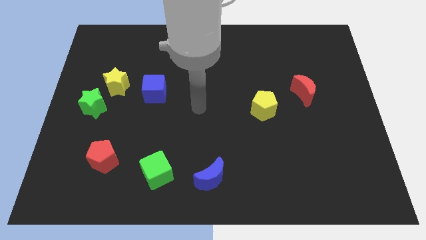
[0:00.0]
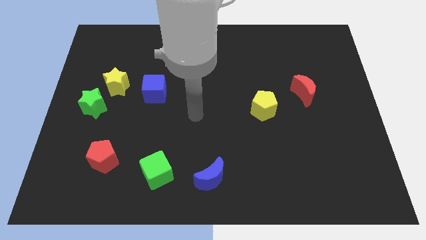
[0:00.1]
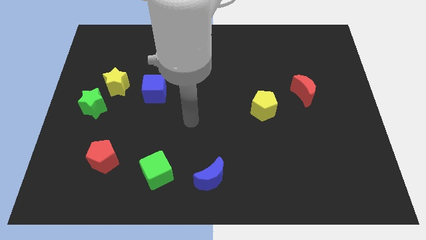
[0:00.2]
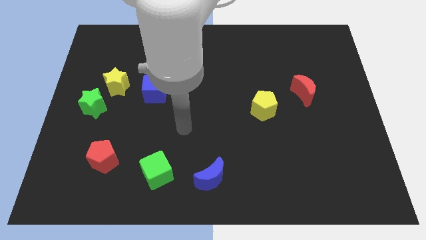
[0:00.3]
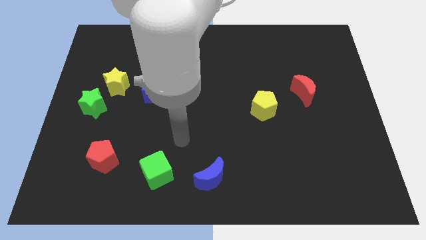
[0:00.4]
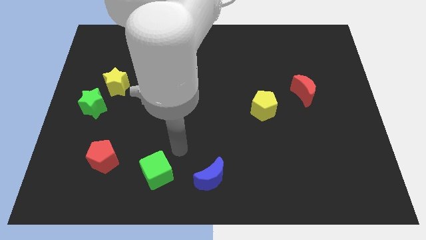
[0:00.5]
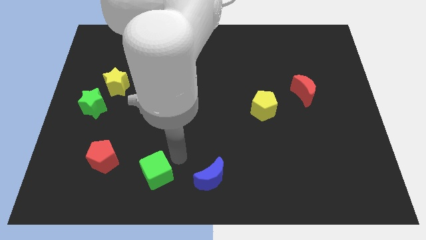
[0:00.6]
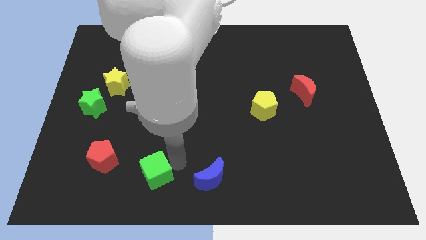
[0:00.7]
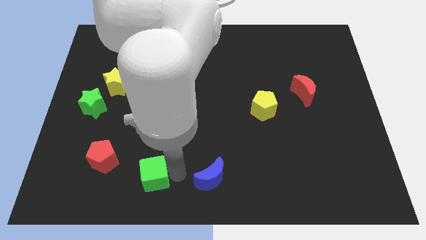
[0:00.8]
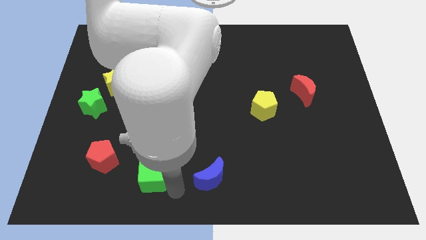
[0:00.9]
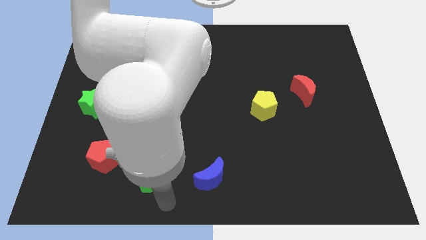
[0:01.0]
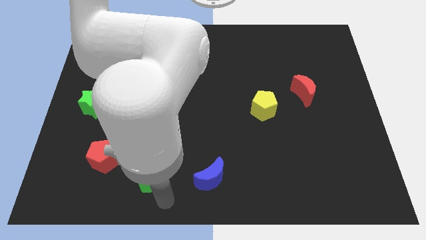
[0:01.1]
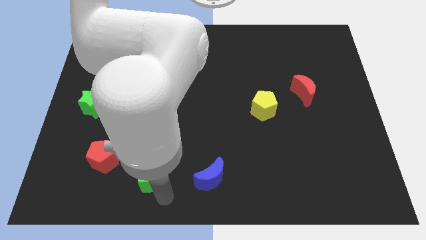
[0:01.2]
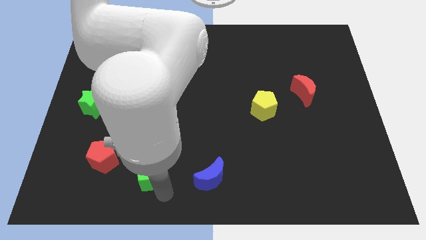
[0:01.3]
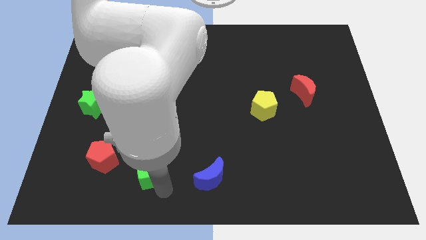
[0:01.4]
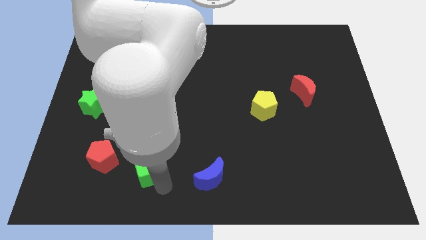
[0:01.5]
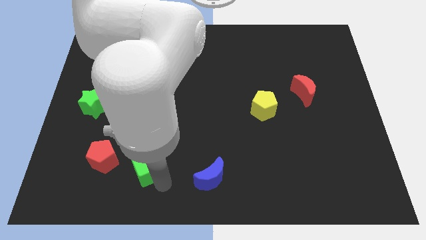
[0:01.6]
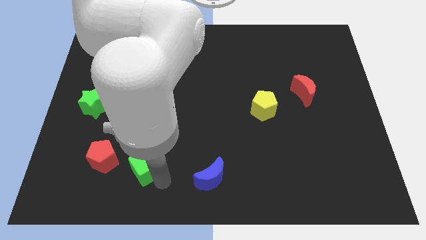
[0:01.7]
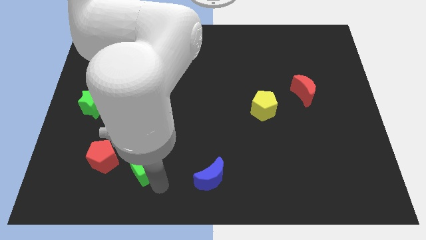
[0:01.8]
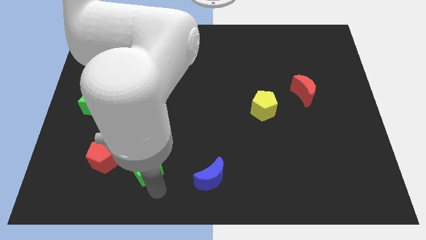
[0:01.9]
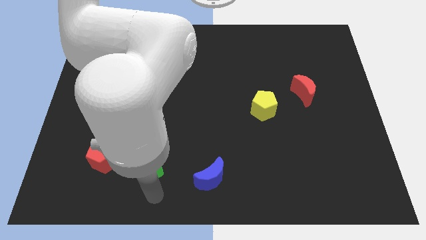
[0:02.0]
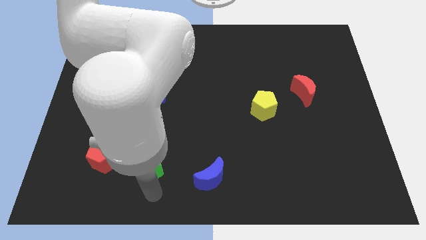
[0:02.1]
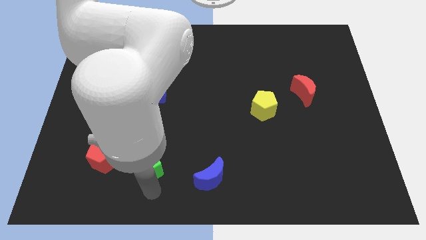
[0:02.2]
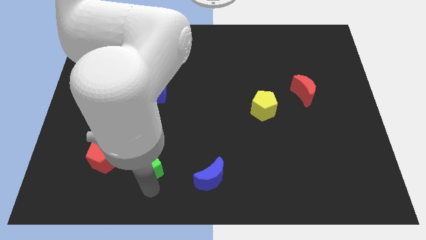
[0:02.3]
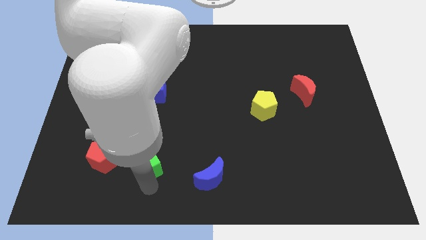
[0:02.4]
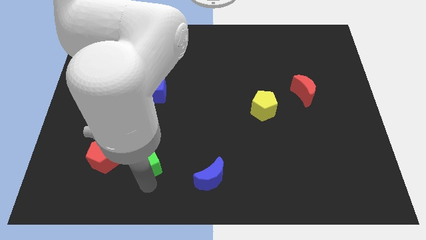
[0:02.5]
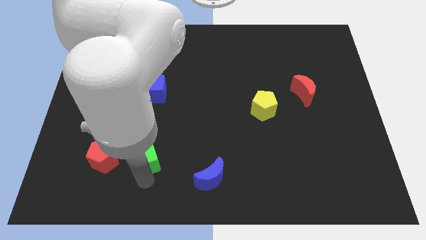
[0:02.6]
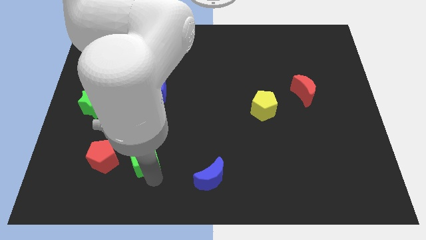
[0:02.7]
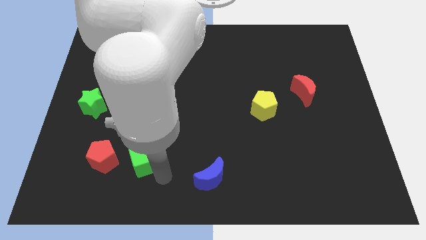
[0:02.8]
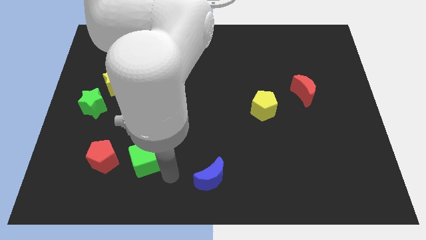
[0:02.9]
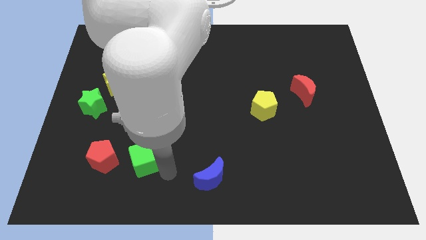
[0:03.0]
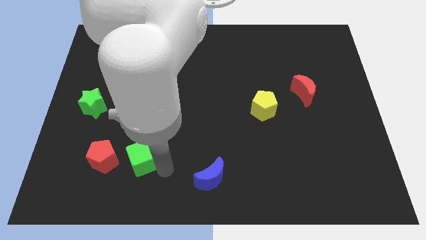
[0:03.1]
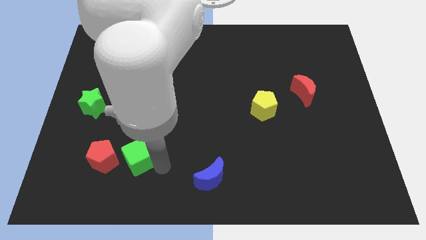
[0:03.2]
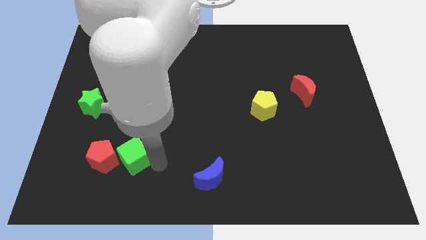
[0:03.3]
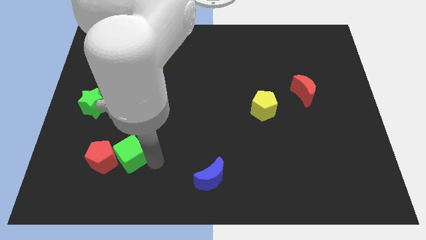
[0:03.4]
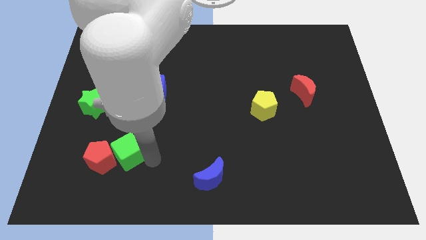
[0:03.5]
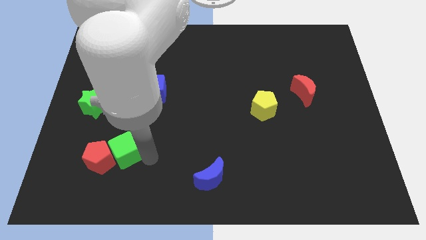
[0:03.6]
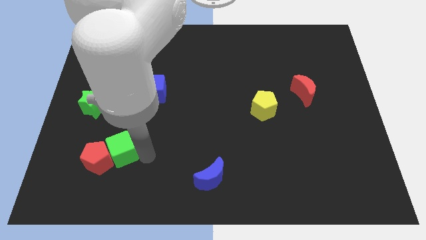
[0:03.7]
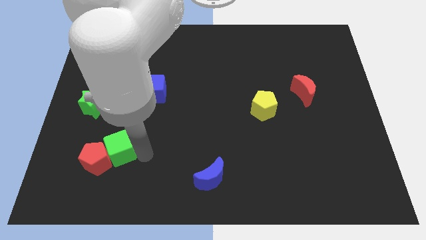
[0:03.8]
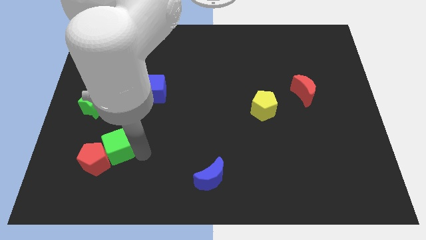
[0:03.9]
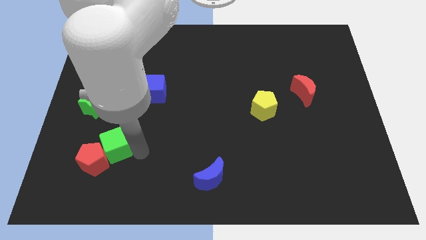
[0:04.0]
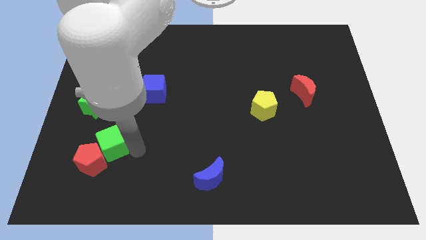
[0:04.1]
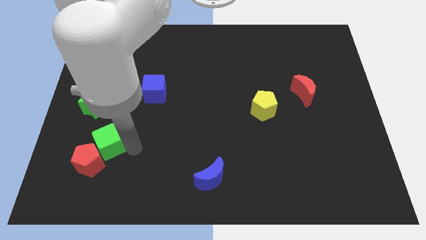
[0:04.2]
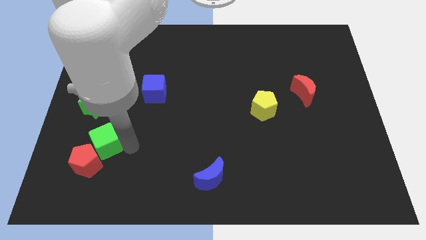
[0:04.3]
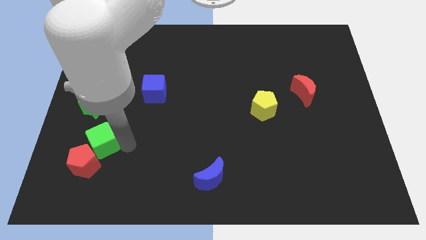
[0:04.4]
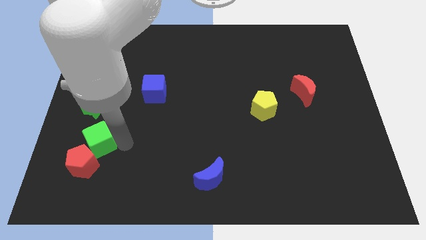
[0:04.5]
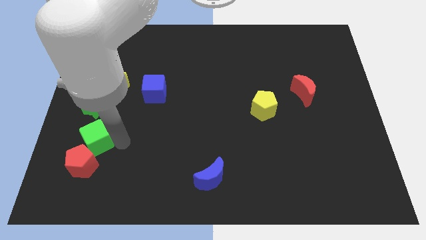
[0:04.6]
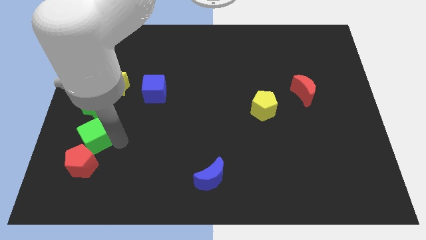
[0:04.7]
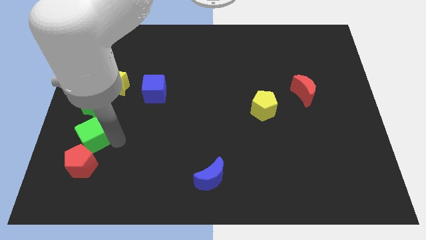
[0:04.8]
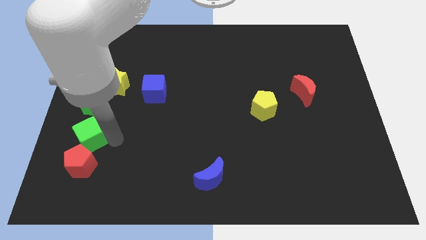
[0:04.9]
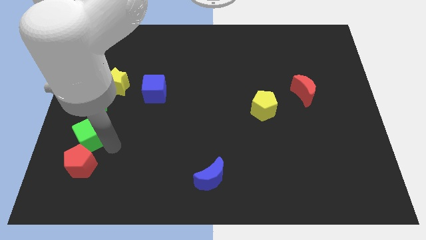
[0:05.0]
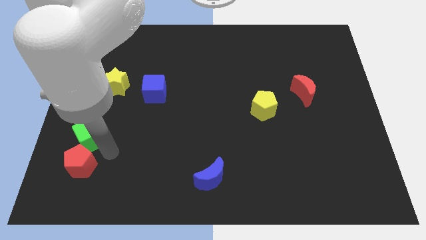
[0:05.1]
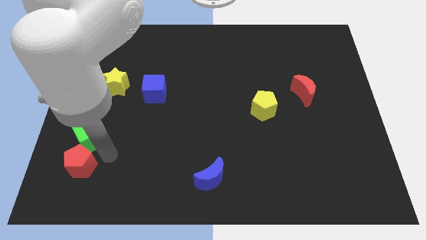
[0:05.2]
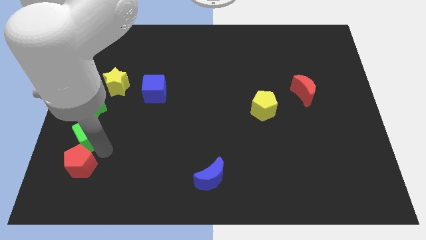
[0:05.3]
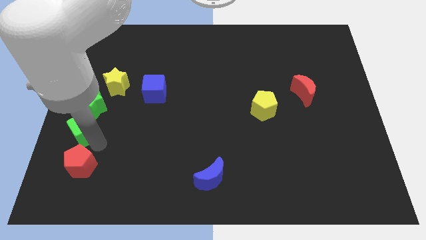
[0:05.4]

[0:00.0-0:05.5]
slide the green cube to the center left

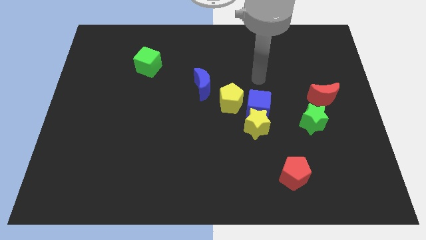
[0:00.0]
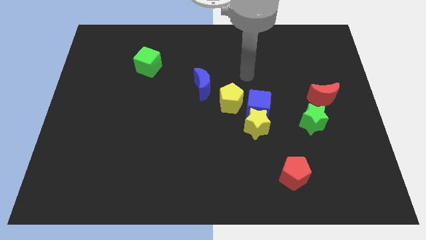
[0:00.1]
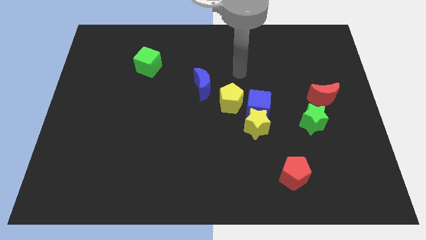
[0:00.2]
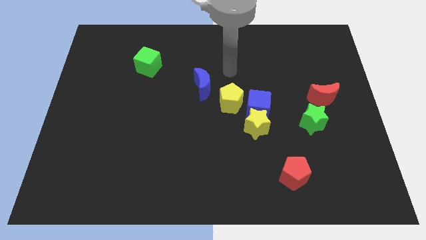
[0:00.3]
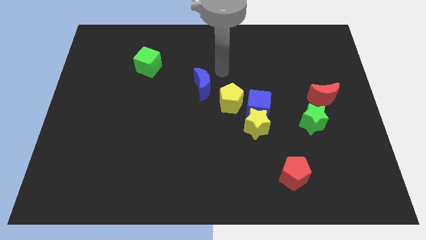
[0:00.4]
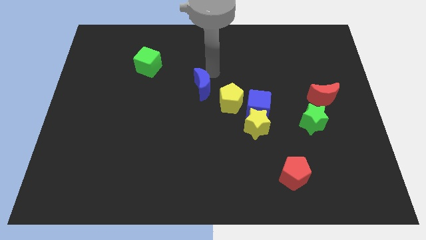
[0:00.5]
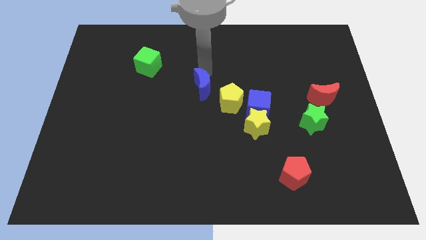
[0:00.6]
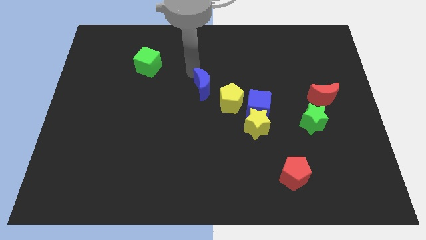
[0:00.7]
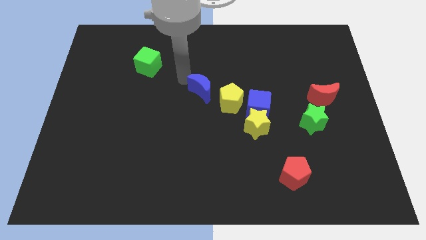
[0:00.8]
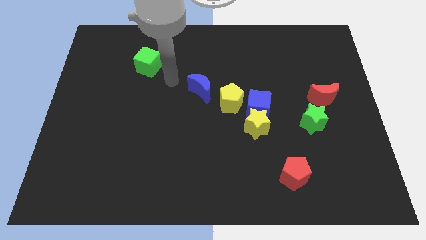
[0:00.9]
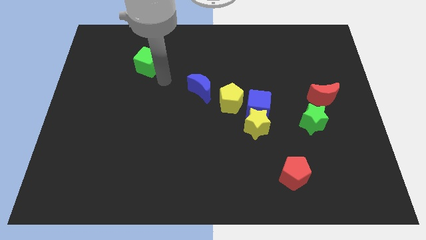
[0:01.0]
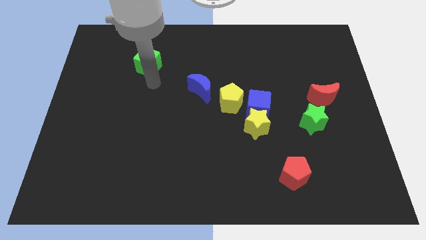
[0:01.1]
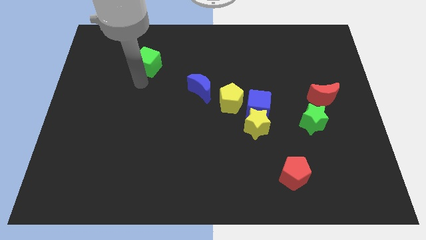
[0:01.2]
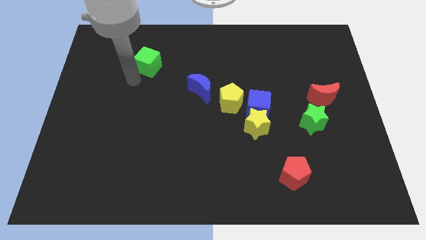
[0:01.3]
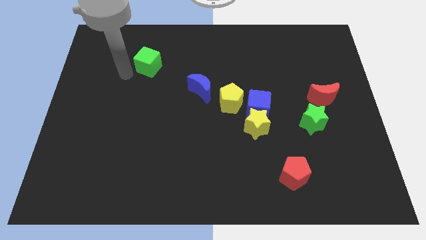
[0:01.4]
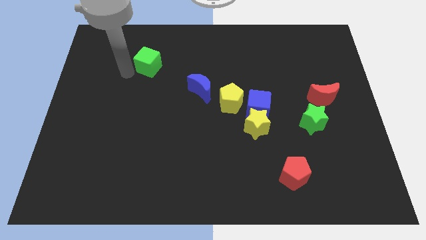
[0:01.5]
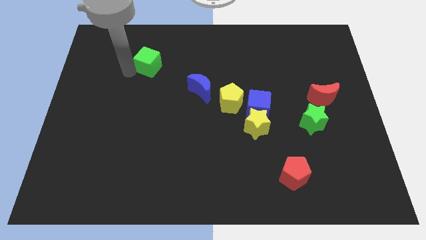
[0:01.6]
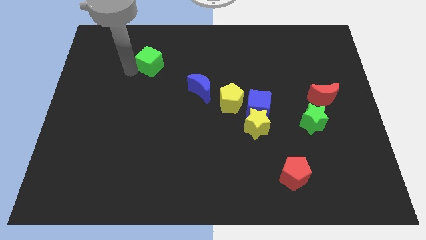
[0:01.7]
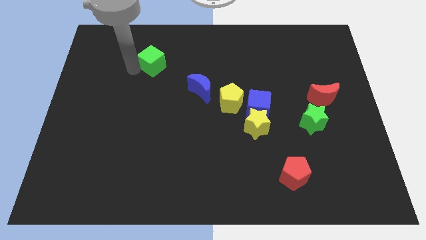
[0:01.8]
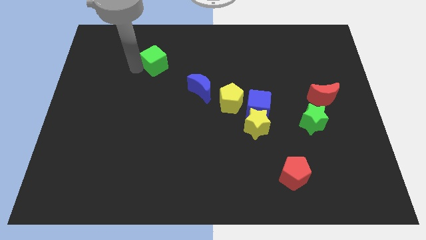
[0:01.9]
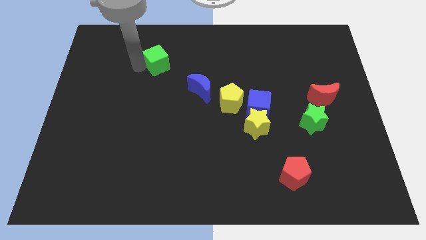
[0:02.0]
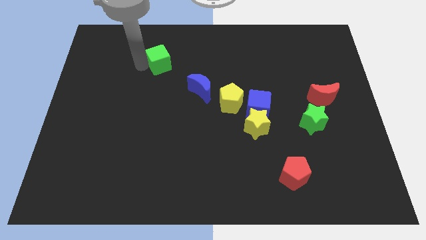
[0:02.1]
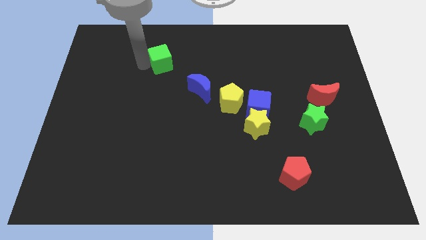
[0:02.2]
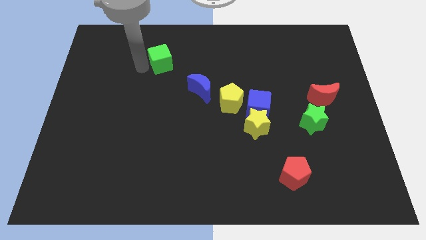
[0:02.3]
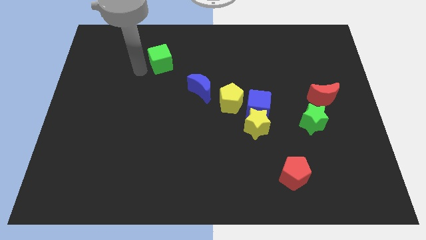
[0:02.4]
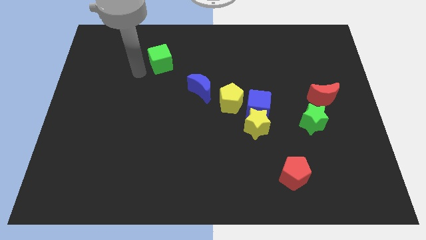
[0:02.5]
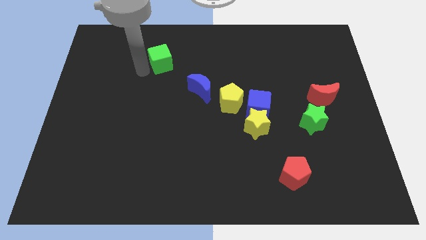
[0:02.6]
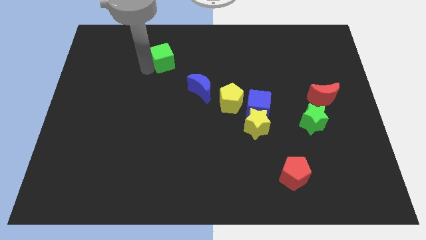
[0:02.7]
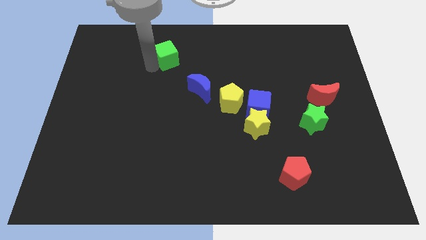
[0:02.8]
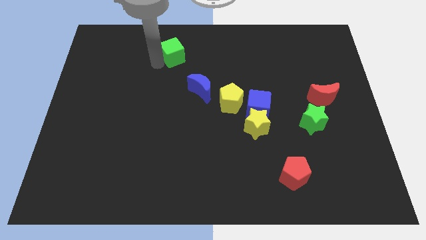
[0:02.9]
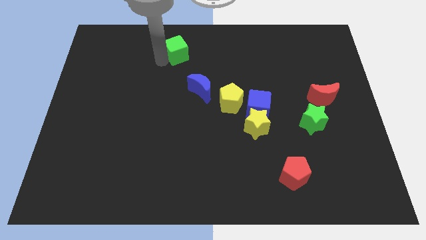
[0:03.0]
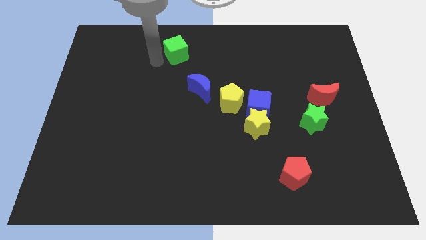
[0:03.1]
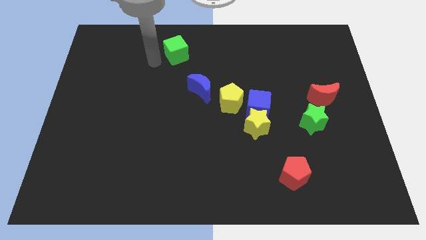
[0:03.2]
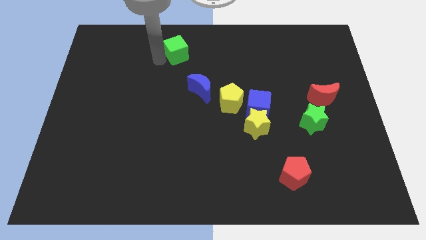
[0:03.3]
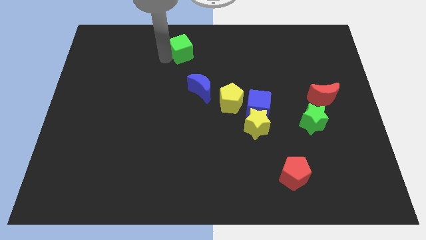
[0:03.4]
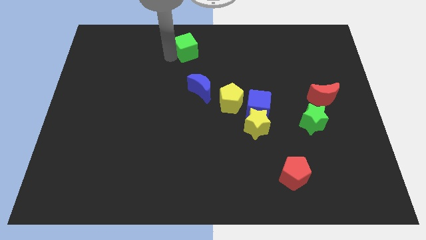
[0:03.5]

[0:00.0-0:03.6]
move the green cube to the towards your base
